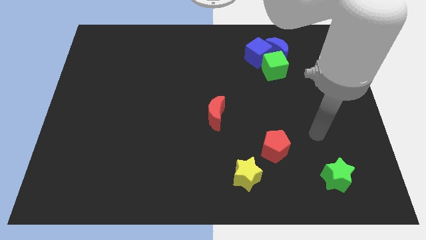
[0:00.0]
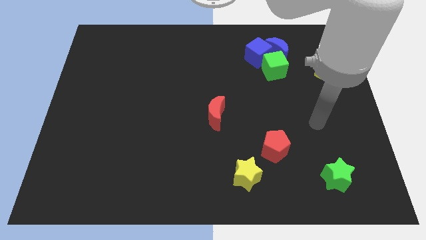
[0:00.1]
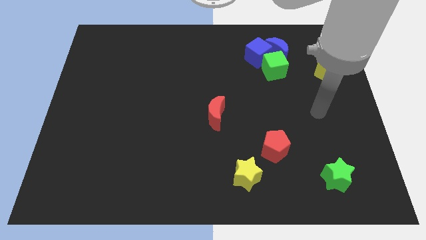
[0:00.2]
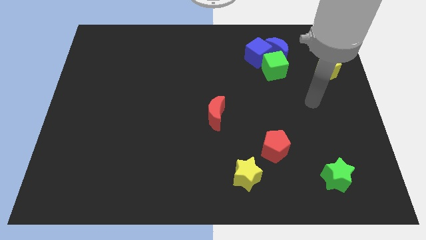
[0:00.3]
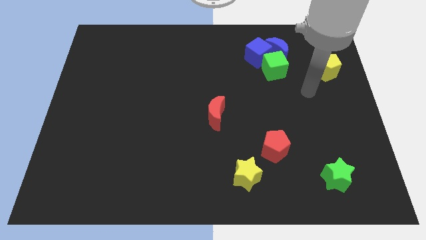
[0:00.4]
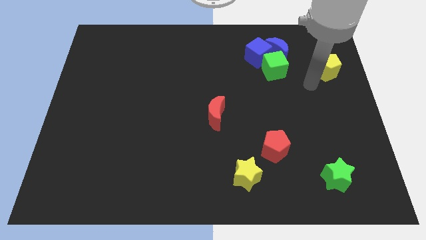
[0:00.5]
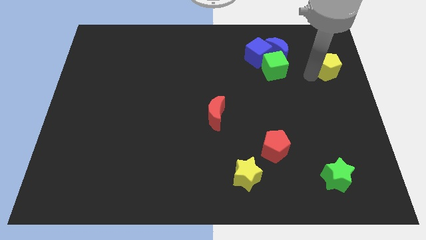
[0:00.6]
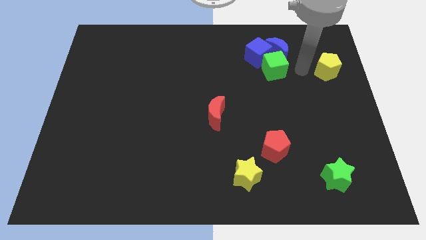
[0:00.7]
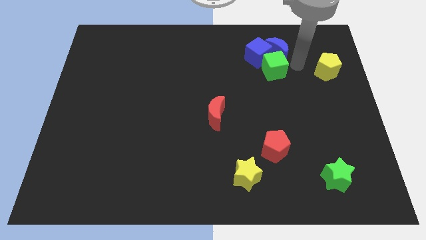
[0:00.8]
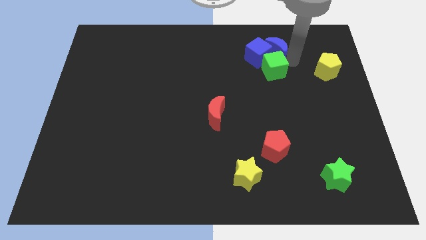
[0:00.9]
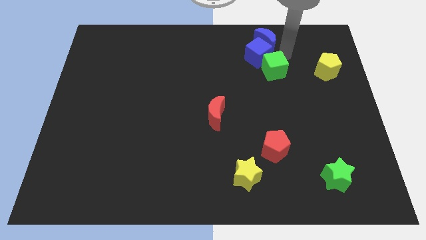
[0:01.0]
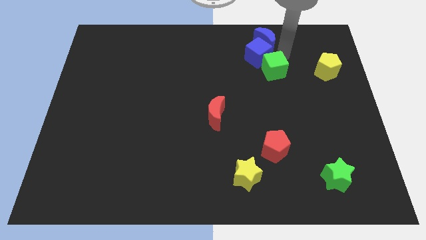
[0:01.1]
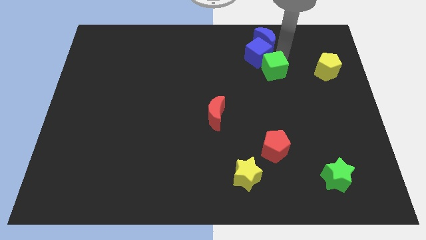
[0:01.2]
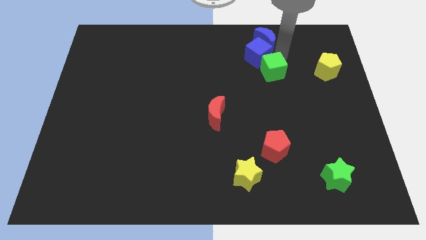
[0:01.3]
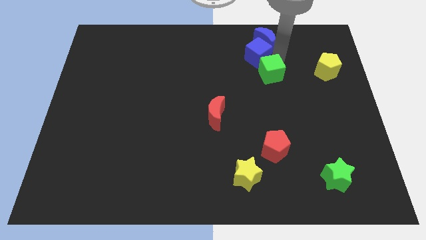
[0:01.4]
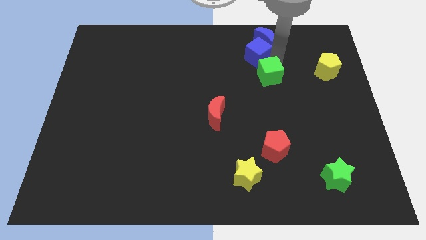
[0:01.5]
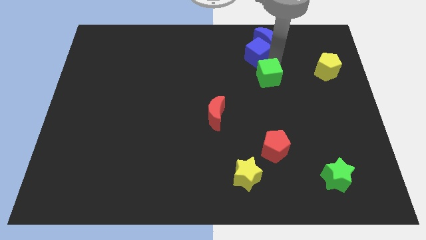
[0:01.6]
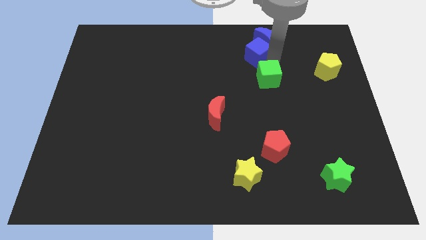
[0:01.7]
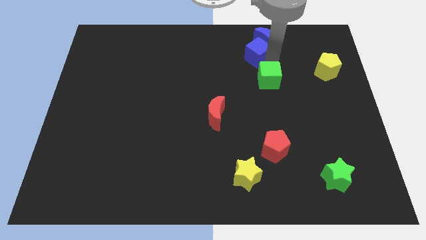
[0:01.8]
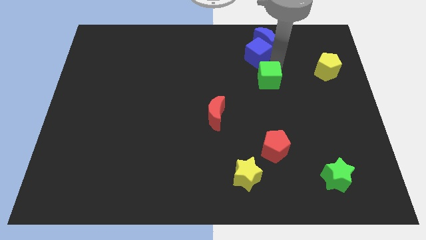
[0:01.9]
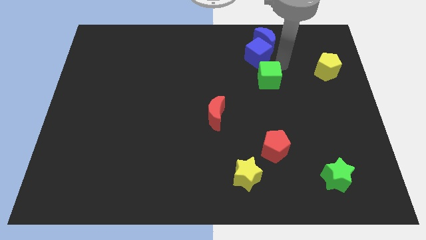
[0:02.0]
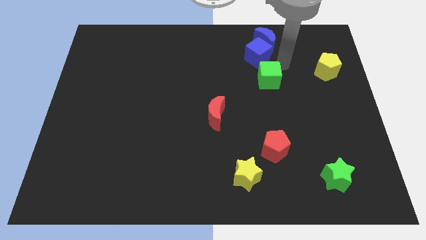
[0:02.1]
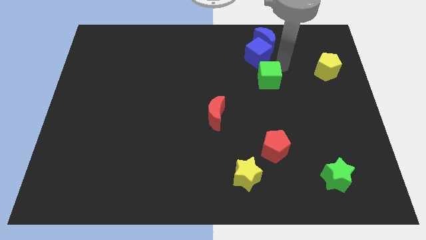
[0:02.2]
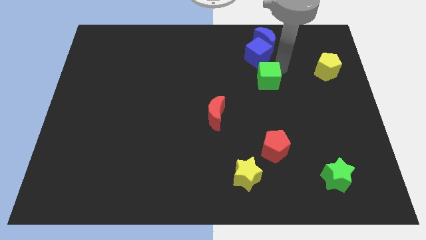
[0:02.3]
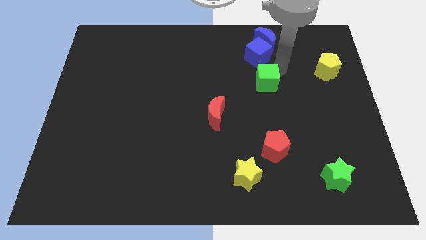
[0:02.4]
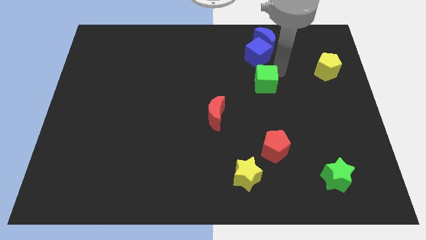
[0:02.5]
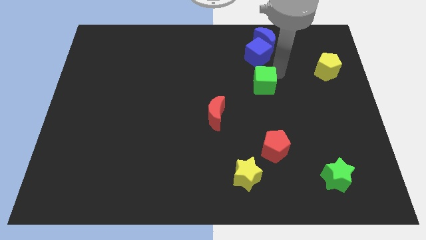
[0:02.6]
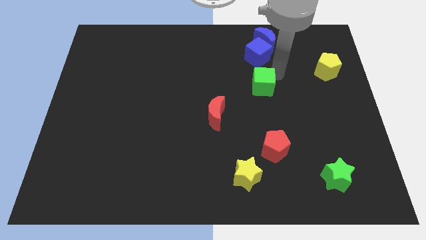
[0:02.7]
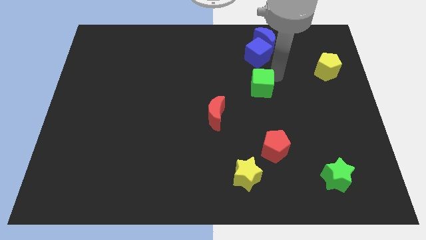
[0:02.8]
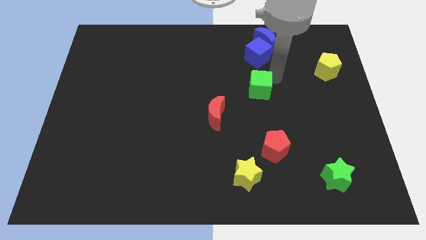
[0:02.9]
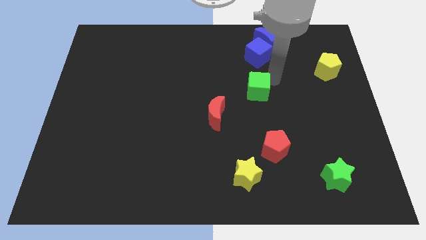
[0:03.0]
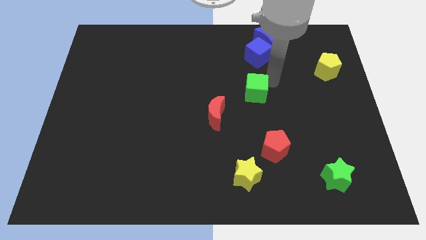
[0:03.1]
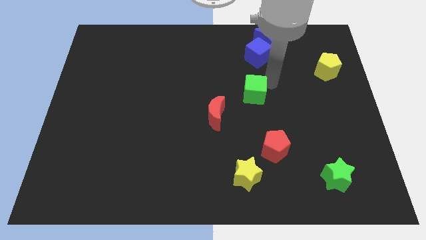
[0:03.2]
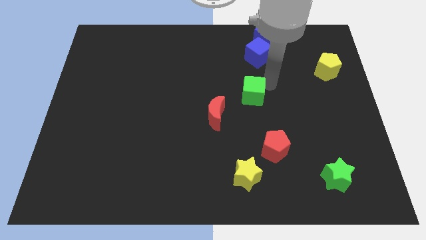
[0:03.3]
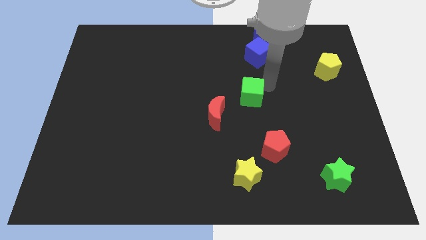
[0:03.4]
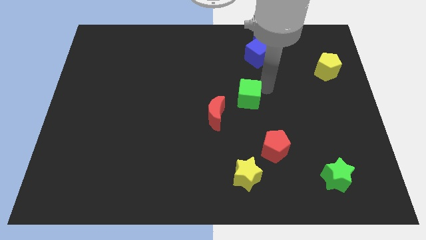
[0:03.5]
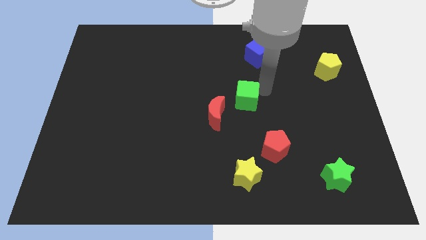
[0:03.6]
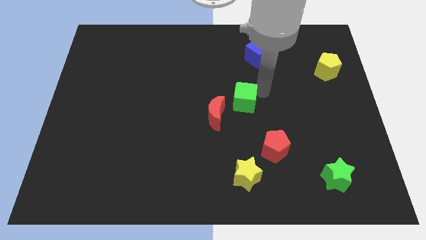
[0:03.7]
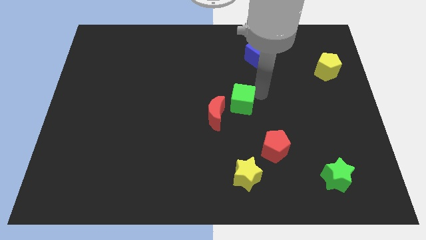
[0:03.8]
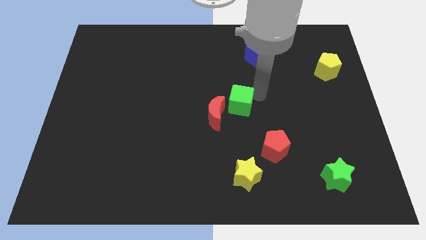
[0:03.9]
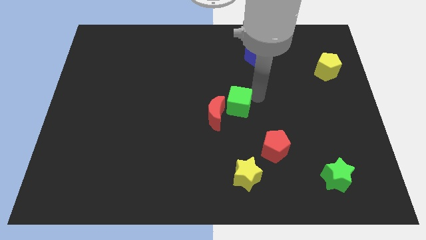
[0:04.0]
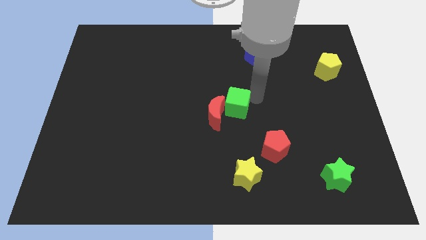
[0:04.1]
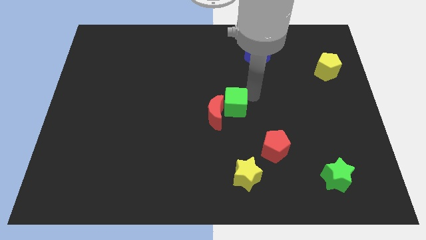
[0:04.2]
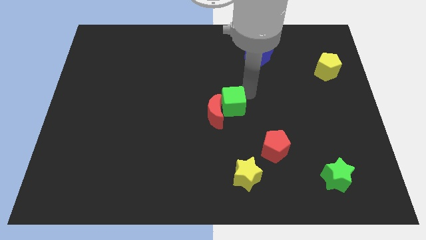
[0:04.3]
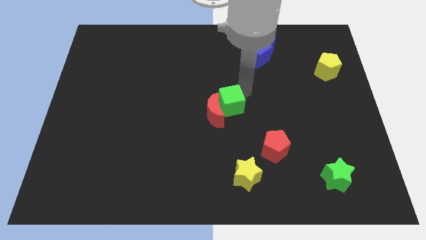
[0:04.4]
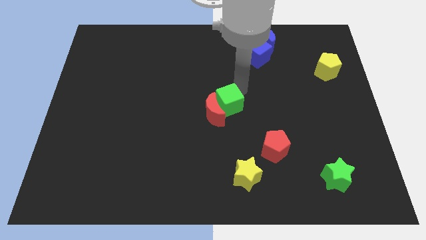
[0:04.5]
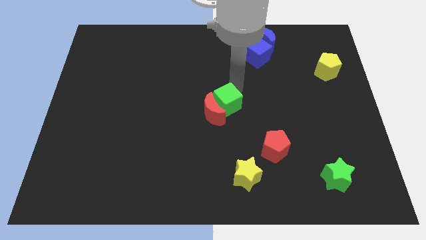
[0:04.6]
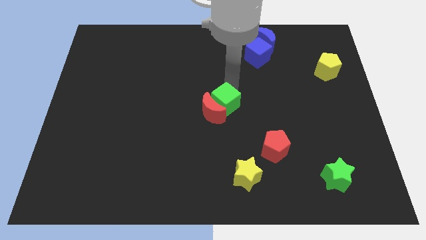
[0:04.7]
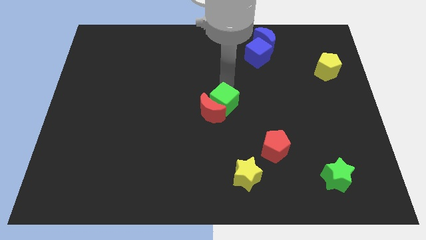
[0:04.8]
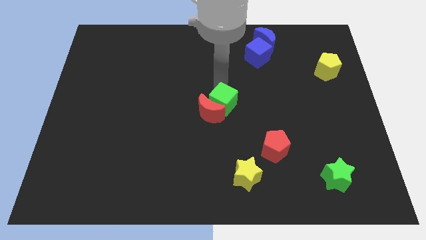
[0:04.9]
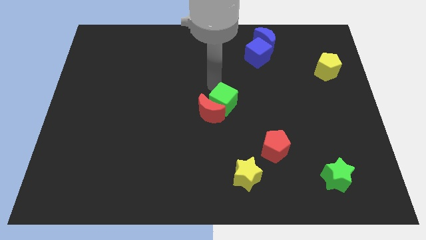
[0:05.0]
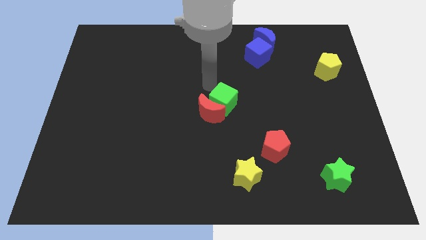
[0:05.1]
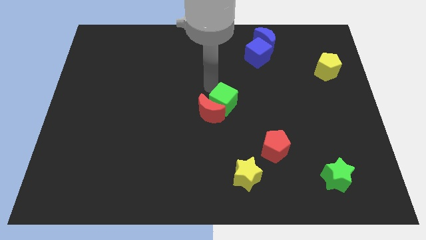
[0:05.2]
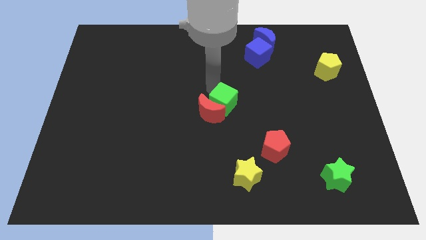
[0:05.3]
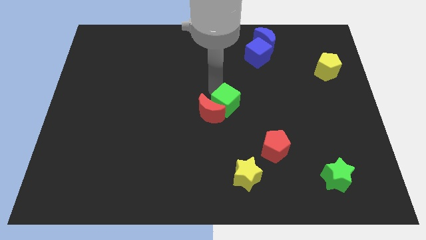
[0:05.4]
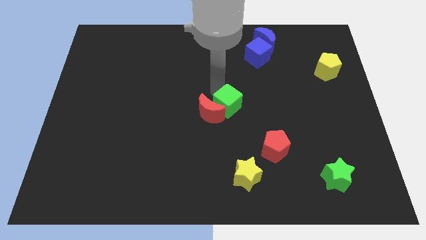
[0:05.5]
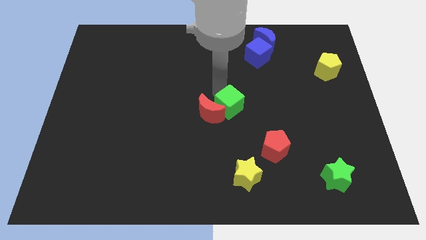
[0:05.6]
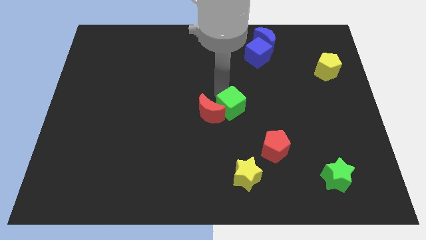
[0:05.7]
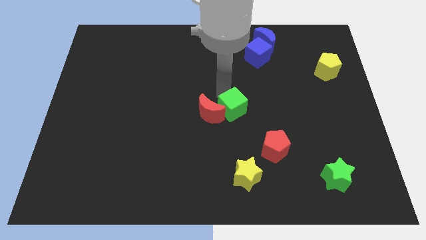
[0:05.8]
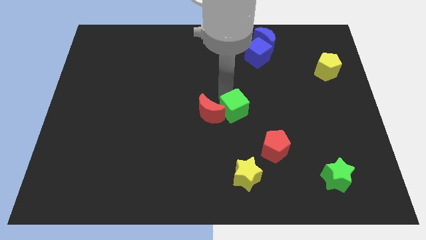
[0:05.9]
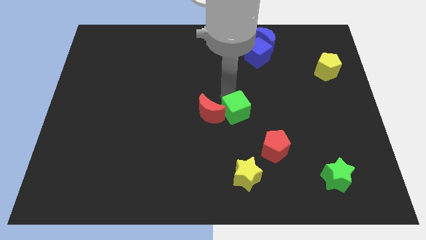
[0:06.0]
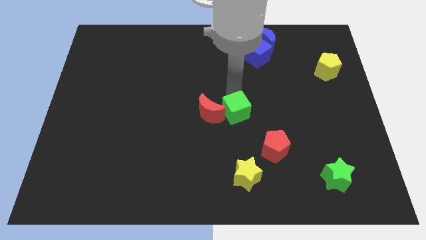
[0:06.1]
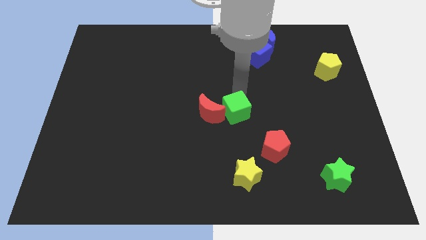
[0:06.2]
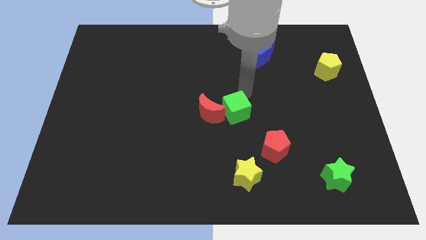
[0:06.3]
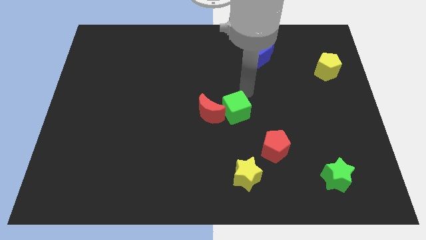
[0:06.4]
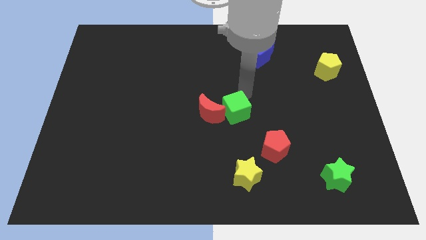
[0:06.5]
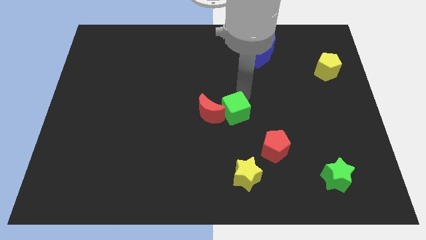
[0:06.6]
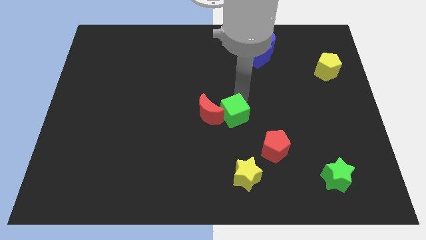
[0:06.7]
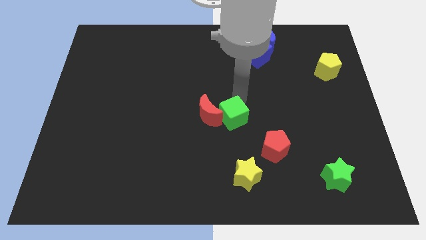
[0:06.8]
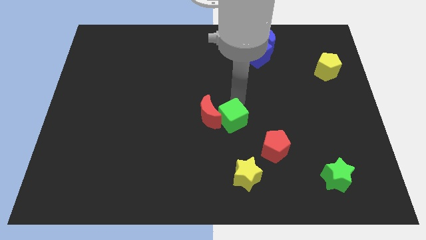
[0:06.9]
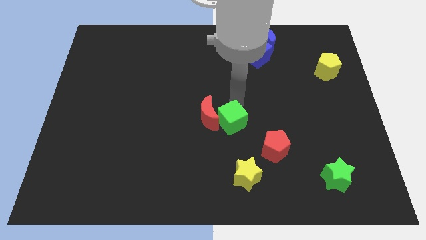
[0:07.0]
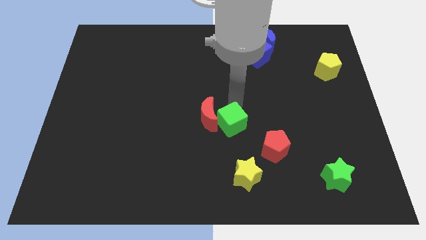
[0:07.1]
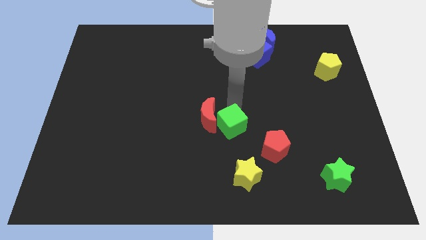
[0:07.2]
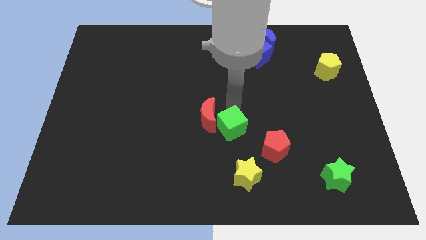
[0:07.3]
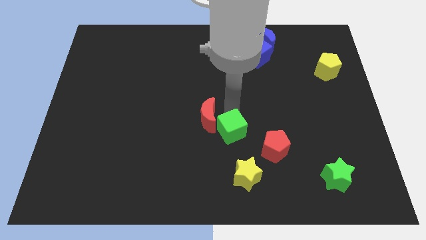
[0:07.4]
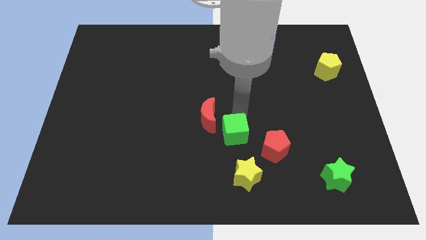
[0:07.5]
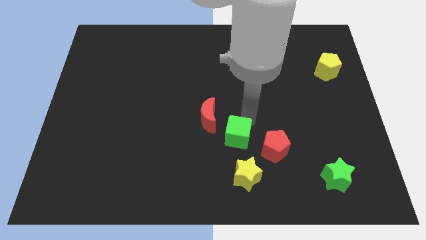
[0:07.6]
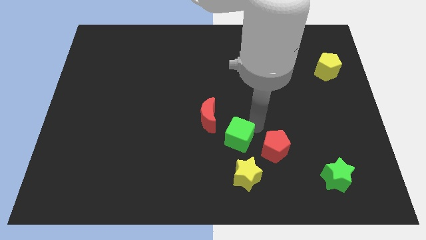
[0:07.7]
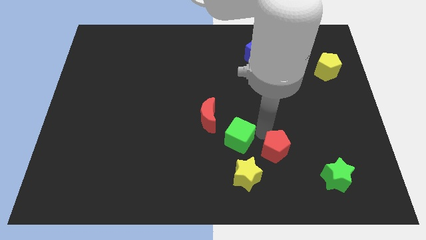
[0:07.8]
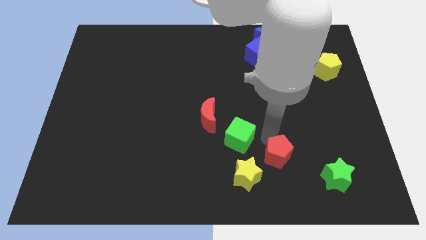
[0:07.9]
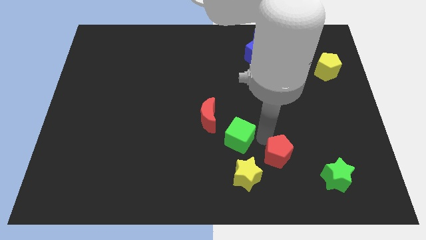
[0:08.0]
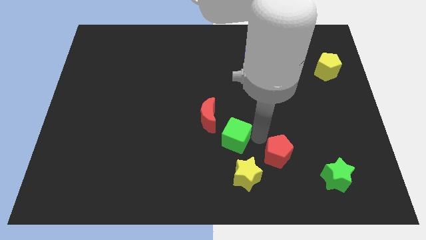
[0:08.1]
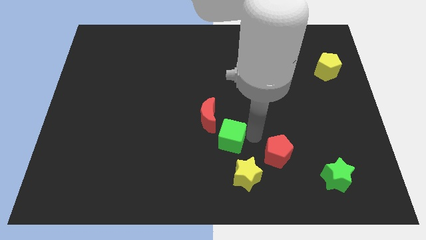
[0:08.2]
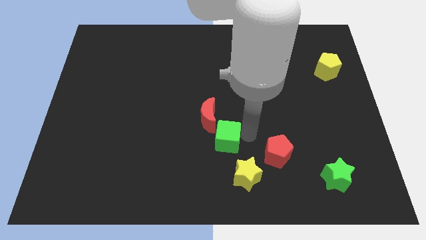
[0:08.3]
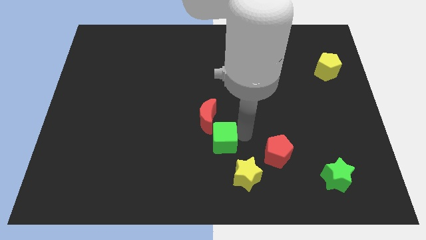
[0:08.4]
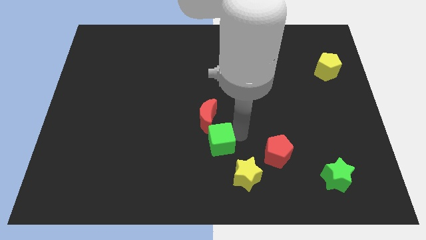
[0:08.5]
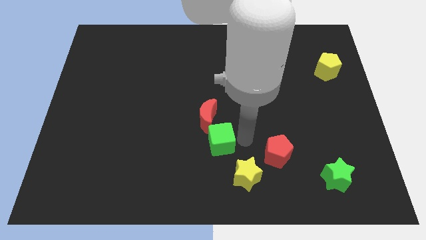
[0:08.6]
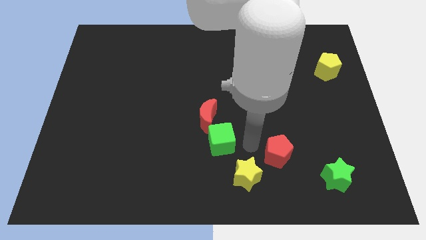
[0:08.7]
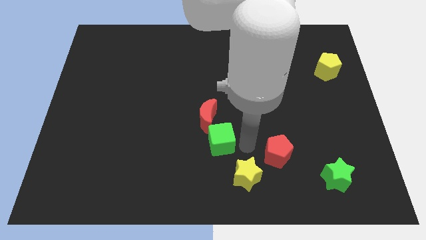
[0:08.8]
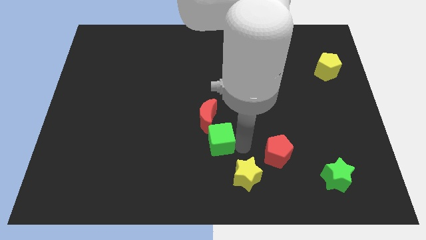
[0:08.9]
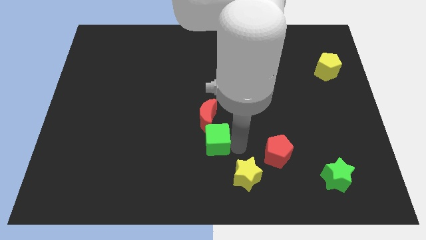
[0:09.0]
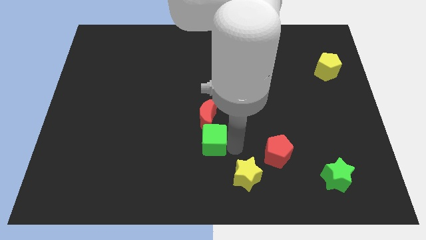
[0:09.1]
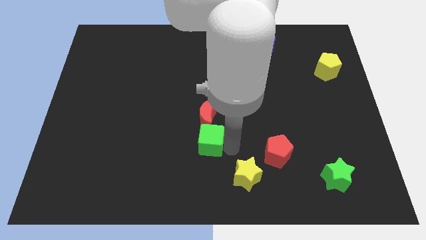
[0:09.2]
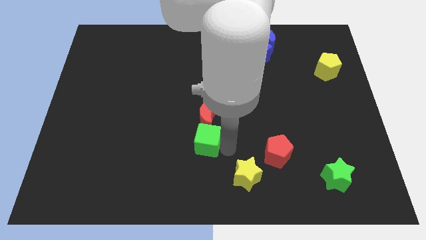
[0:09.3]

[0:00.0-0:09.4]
put the green cube diagonally down and to the left of the red moon
